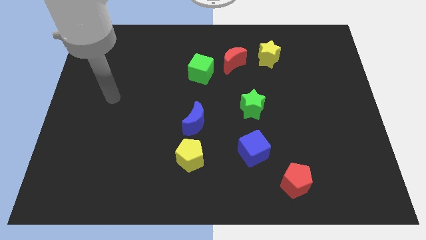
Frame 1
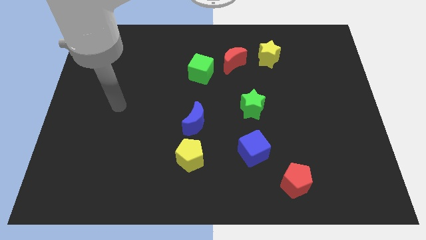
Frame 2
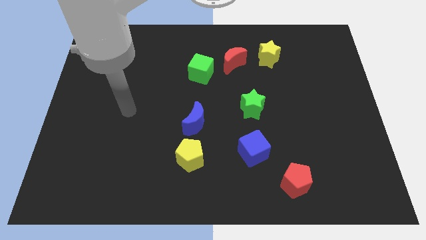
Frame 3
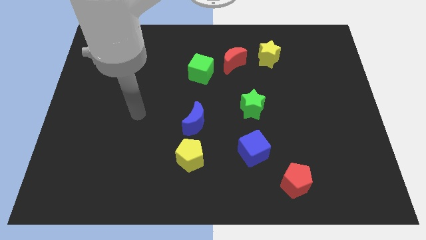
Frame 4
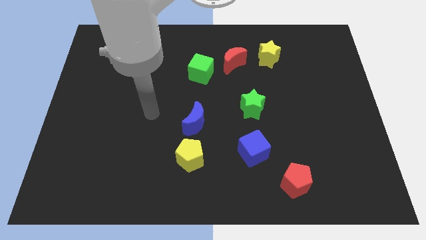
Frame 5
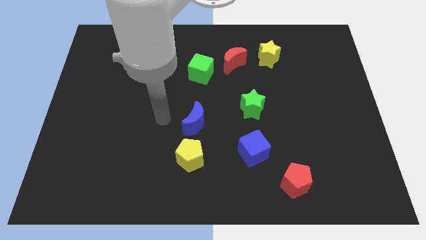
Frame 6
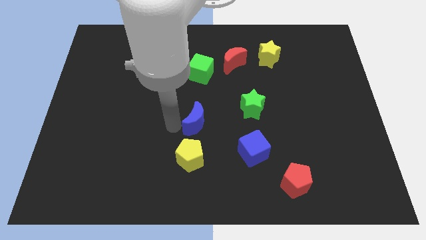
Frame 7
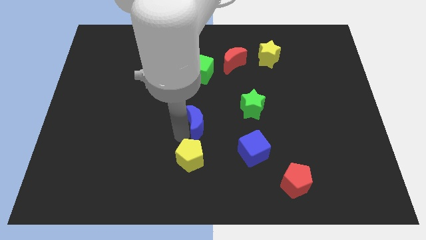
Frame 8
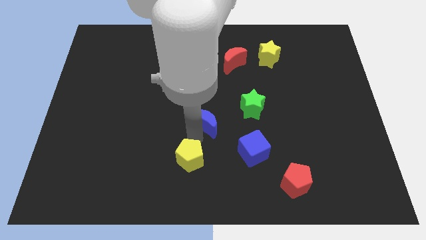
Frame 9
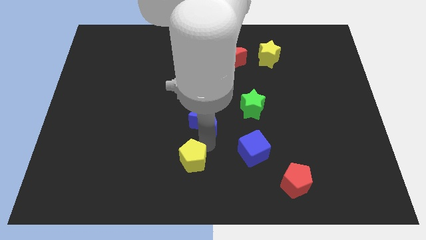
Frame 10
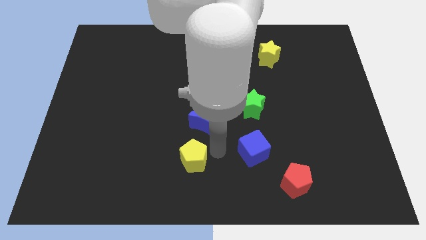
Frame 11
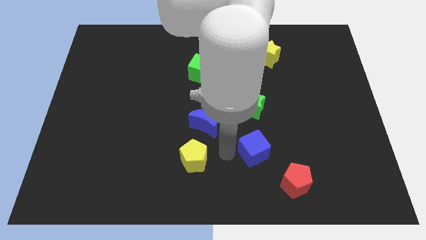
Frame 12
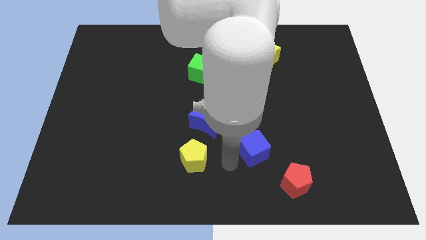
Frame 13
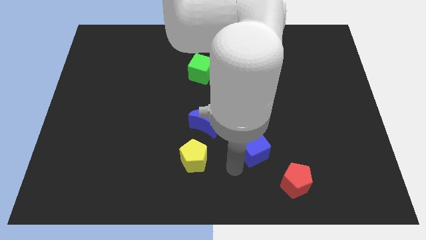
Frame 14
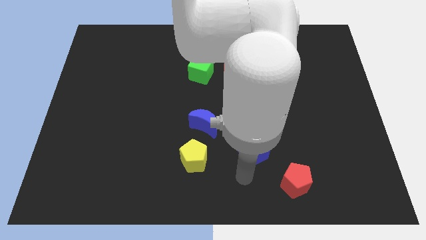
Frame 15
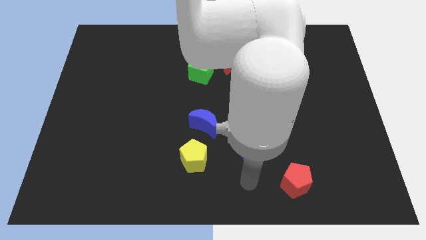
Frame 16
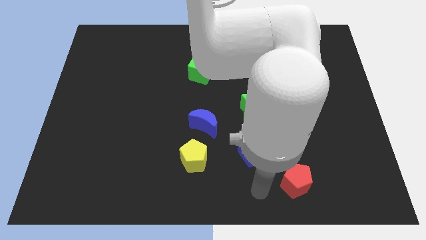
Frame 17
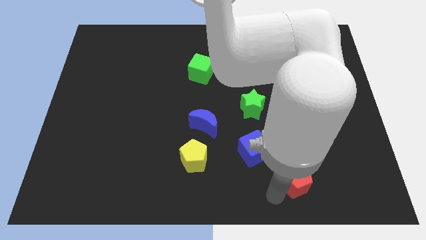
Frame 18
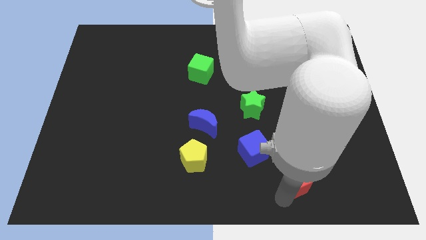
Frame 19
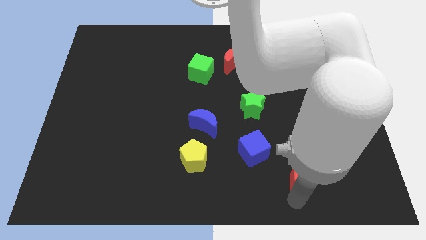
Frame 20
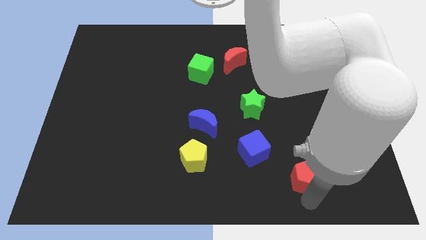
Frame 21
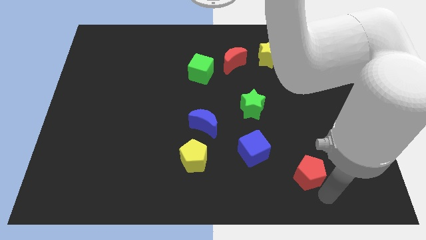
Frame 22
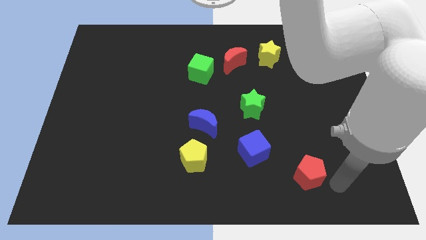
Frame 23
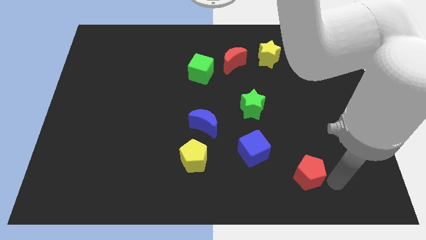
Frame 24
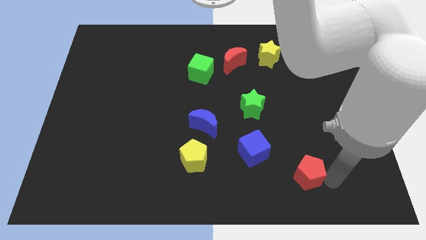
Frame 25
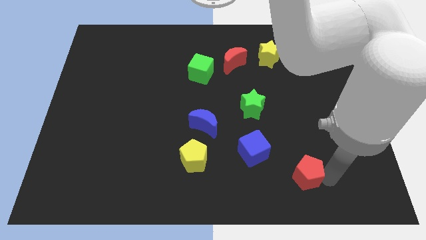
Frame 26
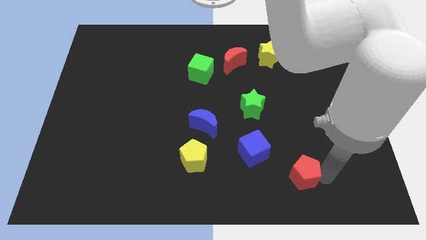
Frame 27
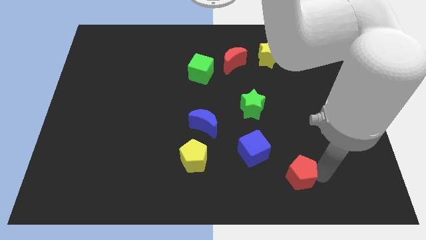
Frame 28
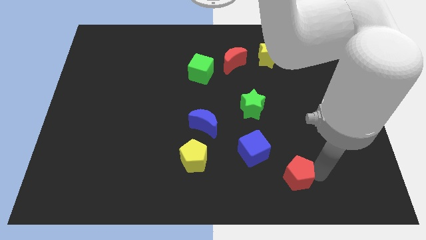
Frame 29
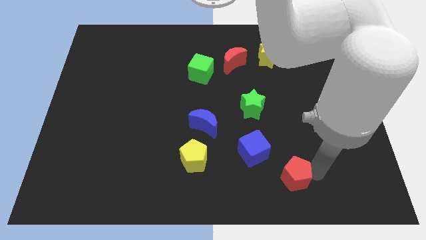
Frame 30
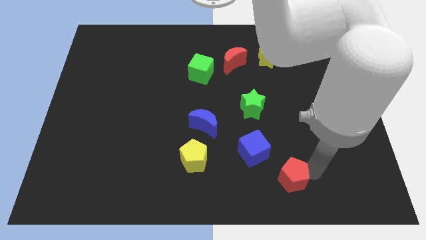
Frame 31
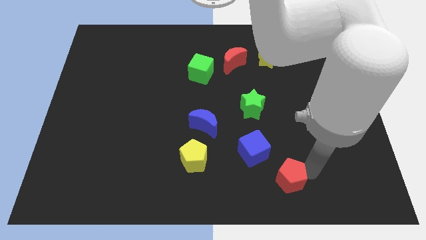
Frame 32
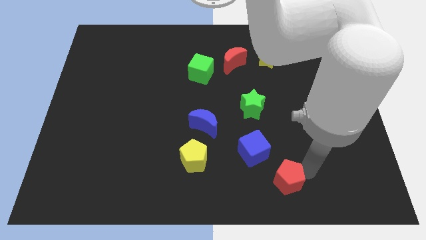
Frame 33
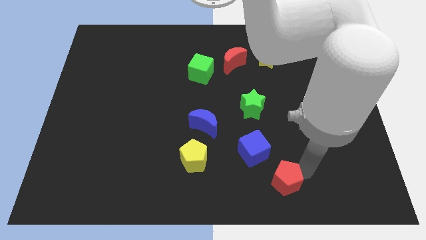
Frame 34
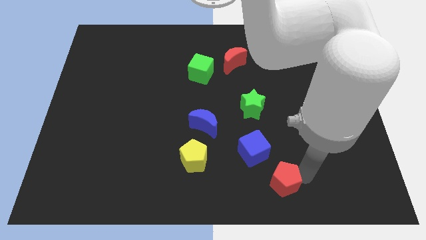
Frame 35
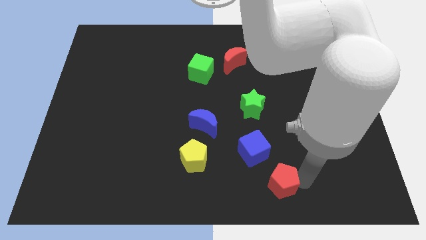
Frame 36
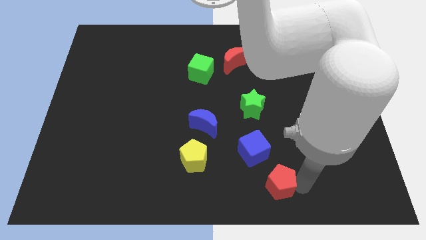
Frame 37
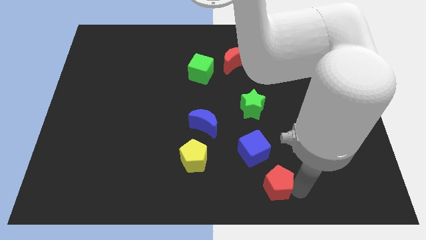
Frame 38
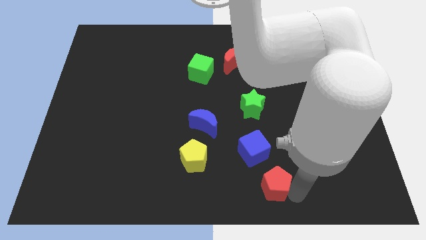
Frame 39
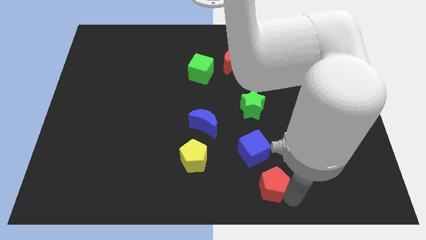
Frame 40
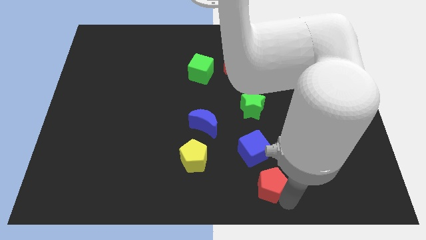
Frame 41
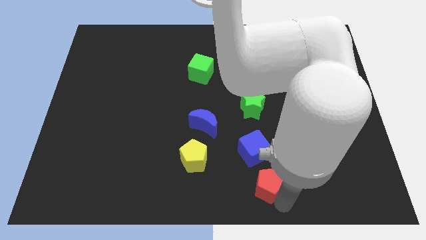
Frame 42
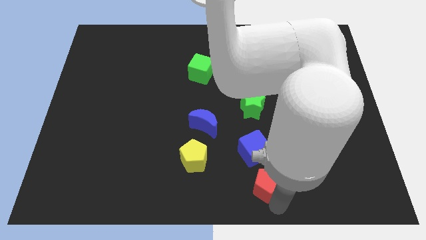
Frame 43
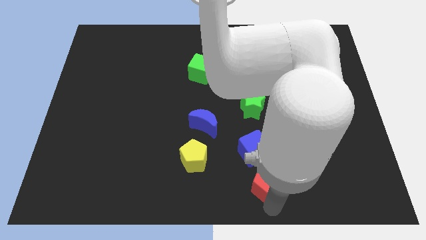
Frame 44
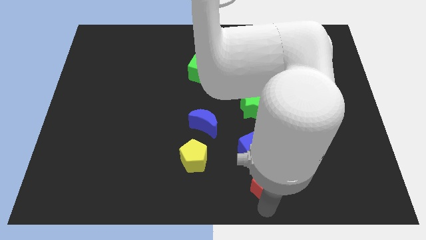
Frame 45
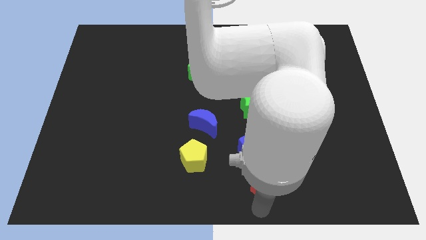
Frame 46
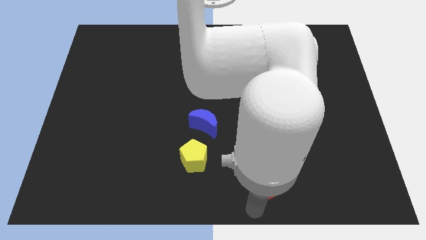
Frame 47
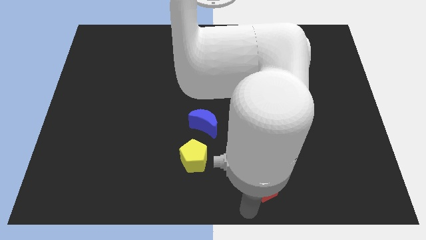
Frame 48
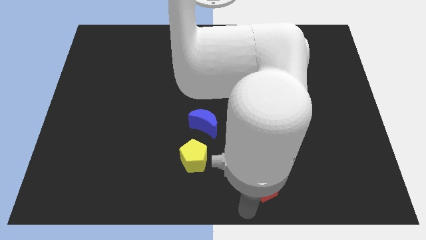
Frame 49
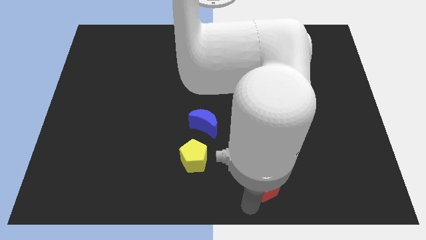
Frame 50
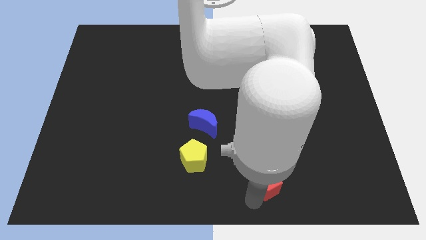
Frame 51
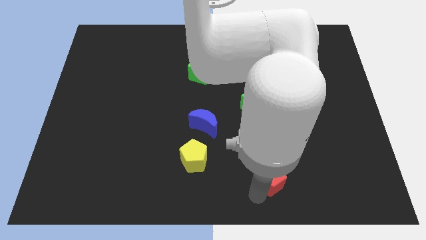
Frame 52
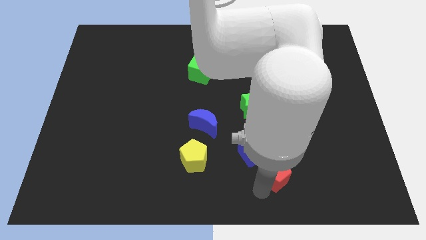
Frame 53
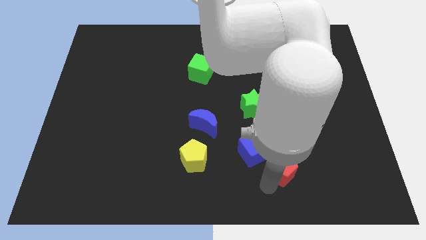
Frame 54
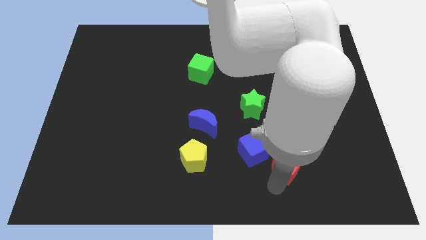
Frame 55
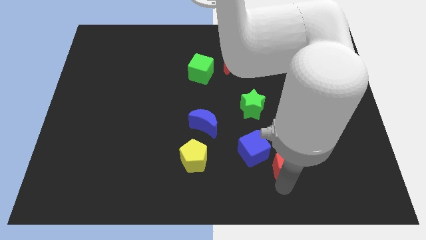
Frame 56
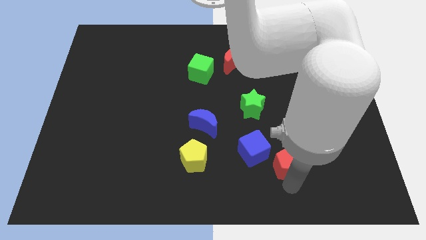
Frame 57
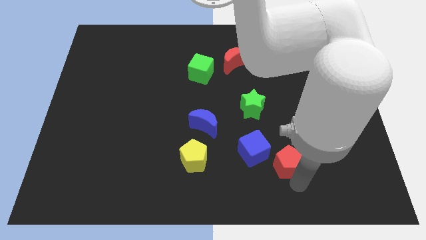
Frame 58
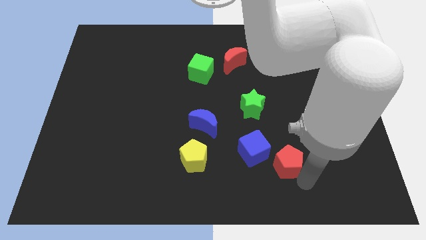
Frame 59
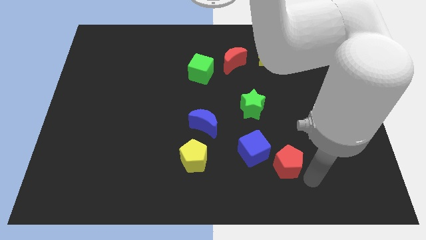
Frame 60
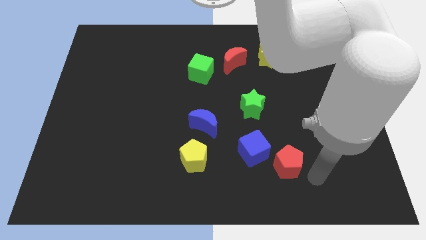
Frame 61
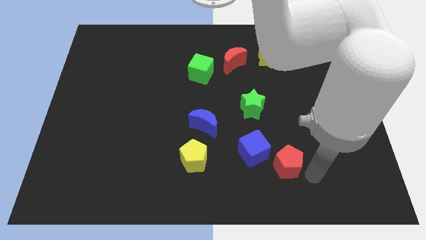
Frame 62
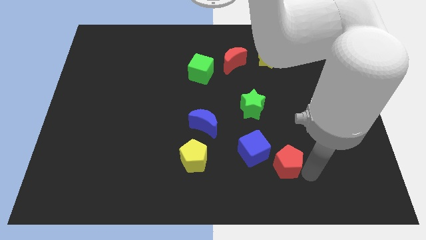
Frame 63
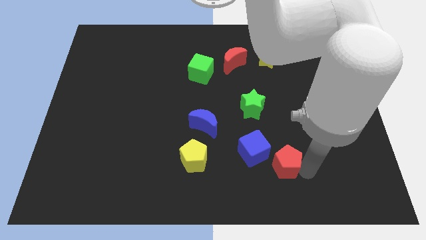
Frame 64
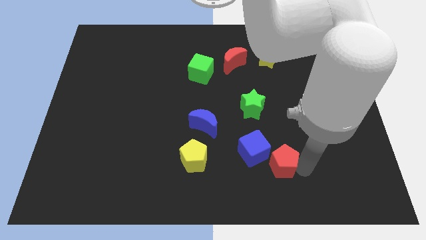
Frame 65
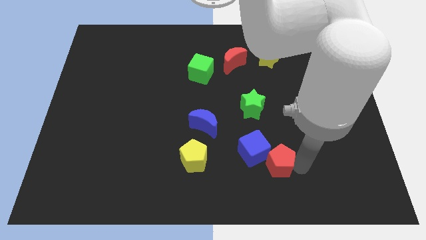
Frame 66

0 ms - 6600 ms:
push the red pentagon towards the blue cube

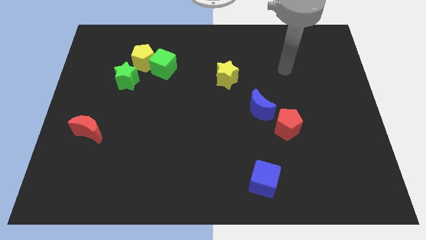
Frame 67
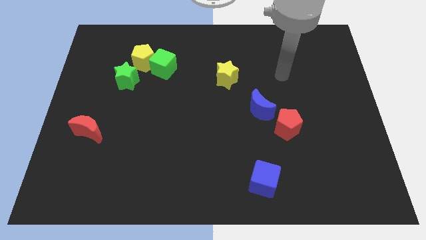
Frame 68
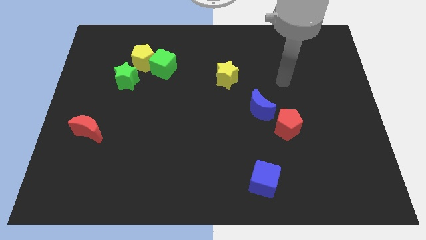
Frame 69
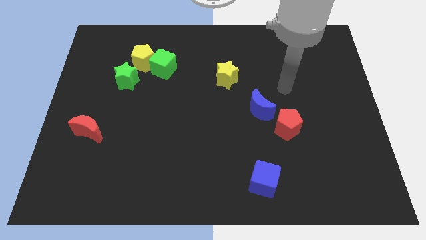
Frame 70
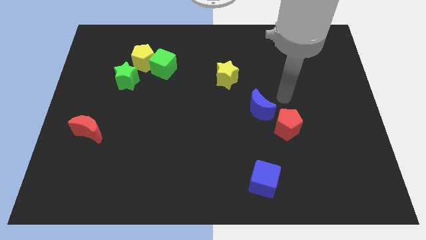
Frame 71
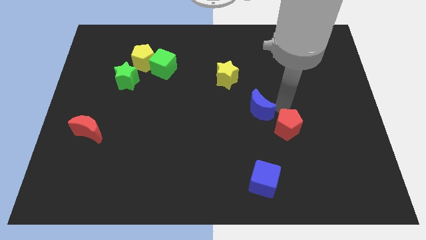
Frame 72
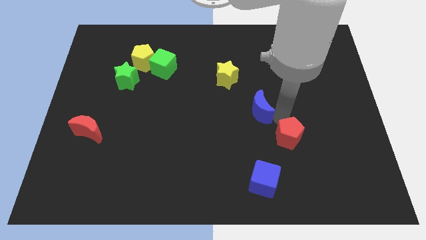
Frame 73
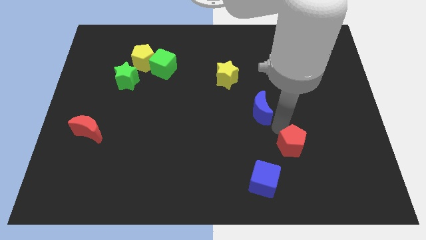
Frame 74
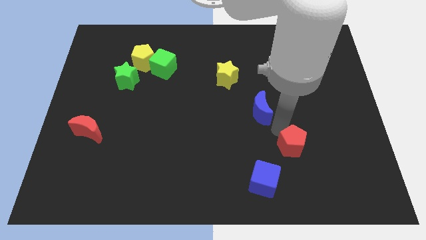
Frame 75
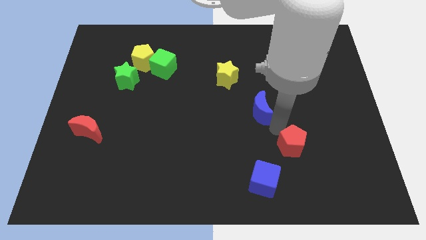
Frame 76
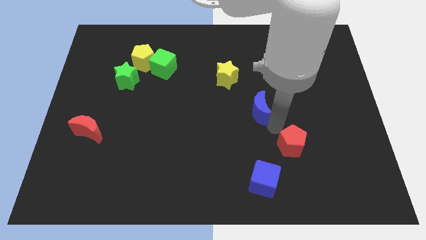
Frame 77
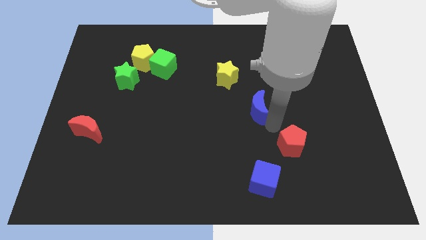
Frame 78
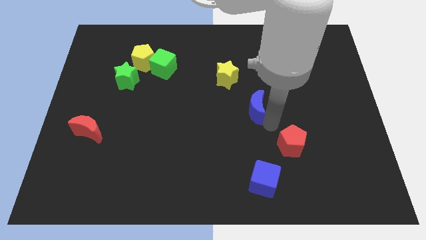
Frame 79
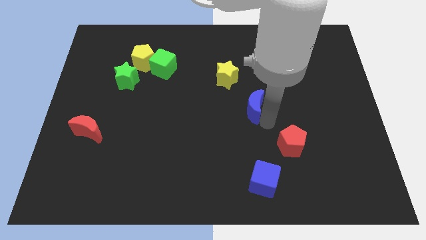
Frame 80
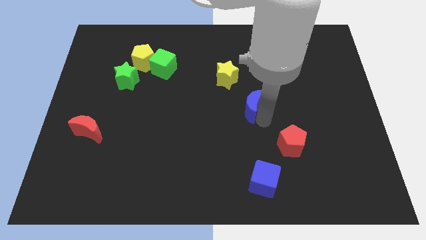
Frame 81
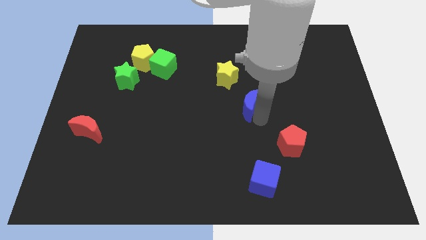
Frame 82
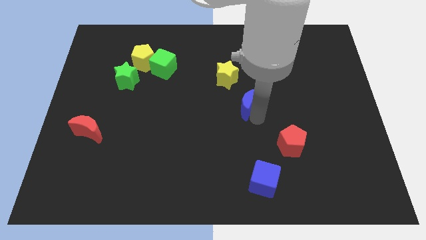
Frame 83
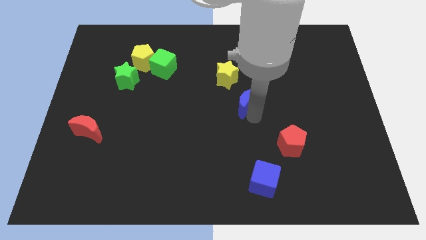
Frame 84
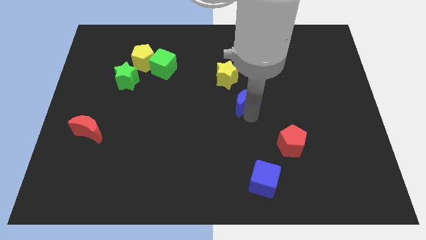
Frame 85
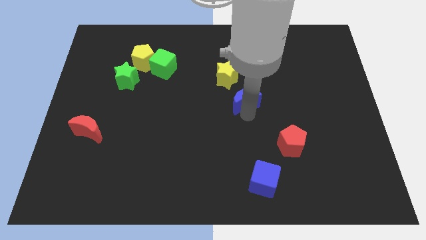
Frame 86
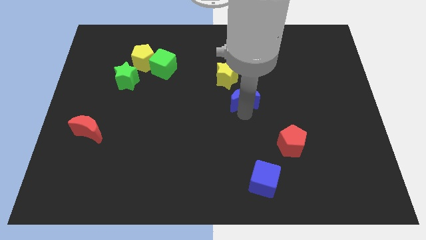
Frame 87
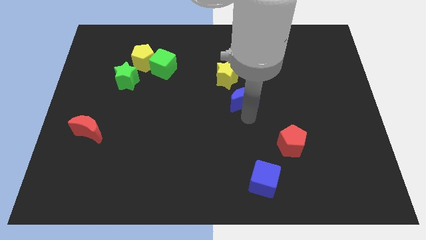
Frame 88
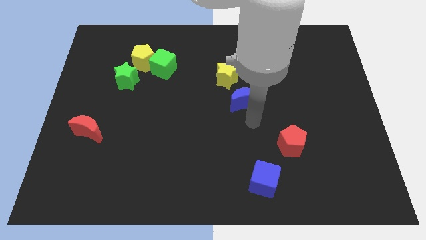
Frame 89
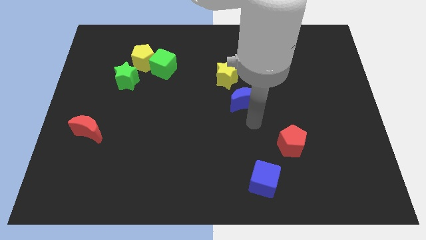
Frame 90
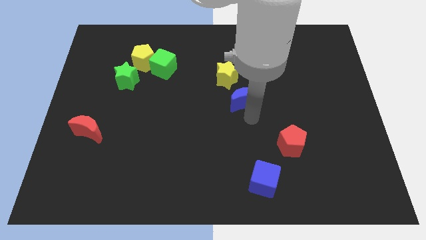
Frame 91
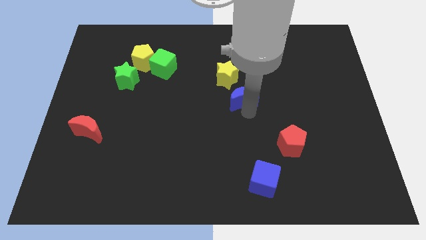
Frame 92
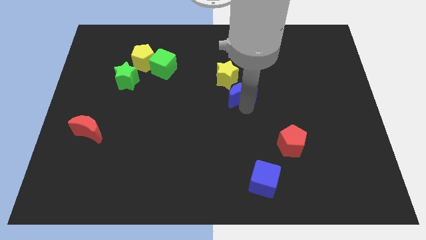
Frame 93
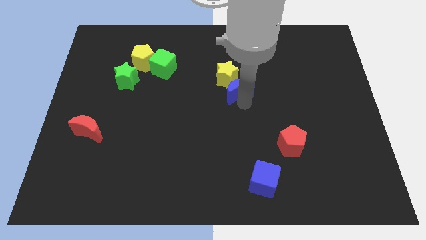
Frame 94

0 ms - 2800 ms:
put the blue moon towards the yellow star
